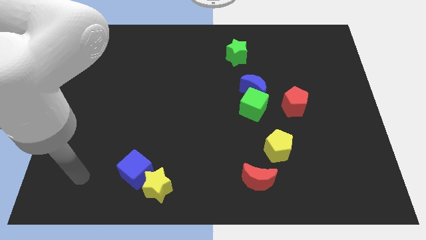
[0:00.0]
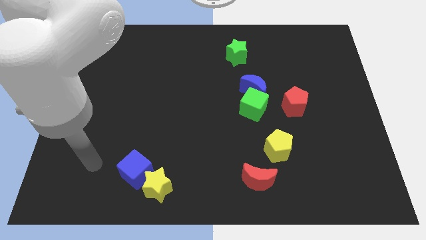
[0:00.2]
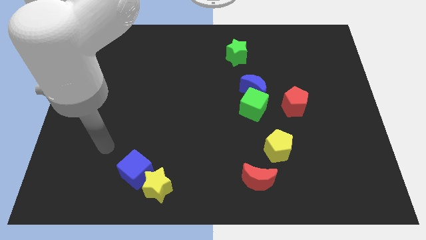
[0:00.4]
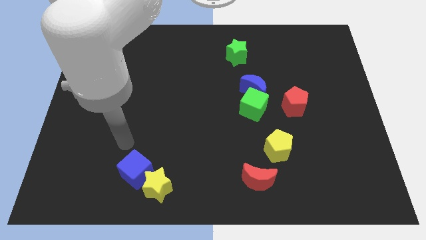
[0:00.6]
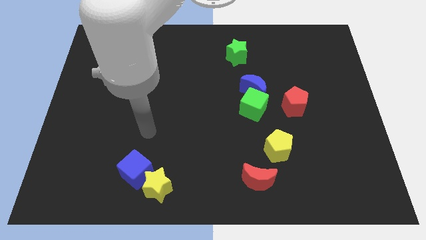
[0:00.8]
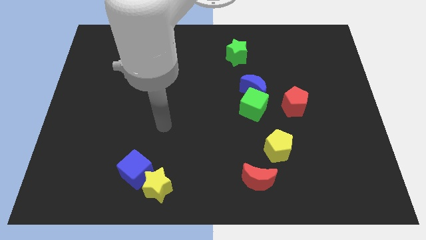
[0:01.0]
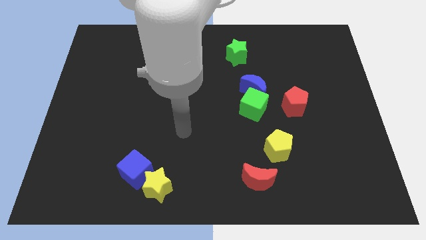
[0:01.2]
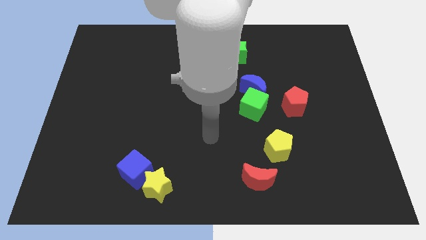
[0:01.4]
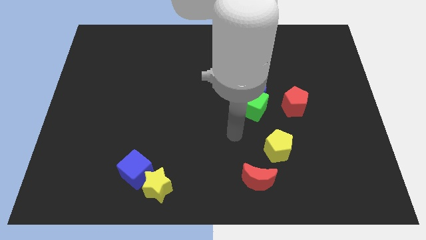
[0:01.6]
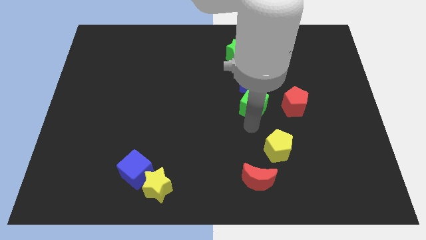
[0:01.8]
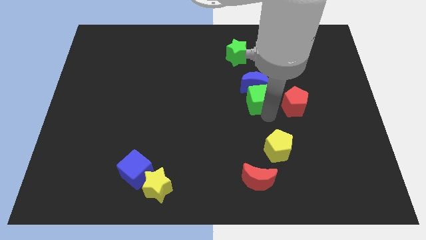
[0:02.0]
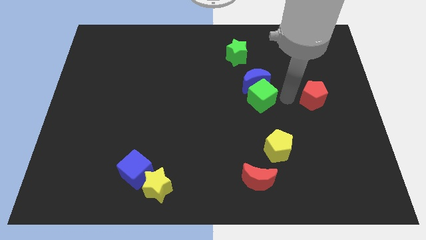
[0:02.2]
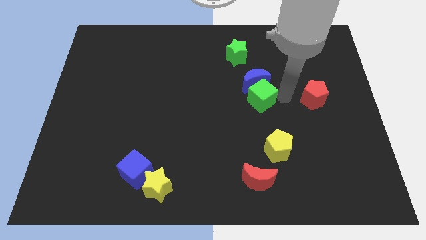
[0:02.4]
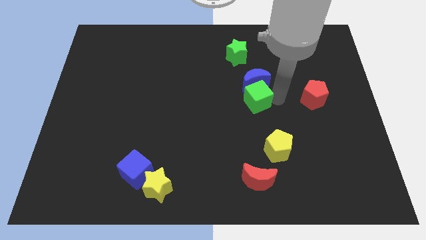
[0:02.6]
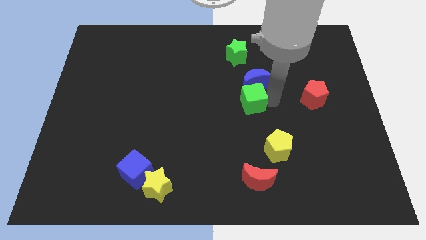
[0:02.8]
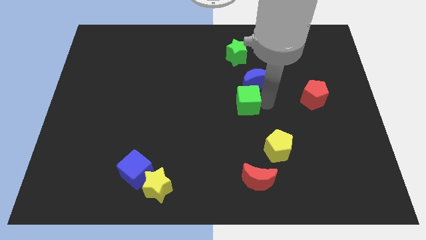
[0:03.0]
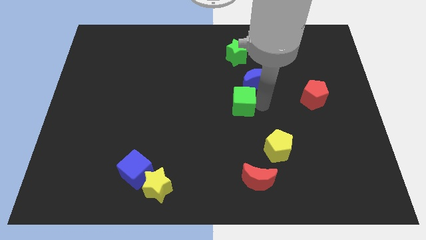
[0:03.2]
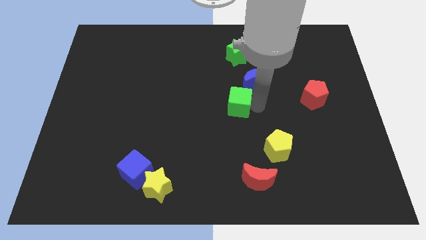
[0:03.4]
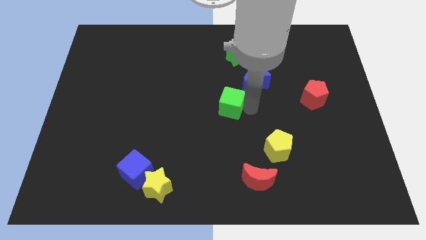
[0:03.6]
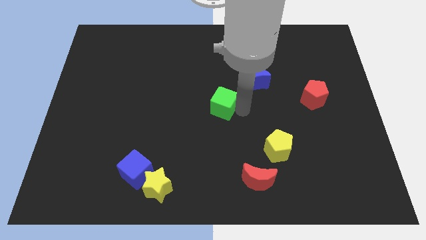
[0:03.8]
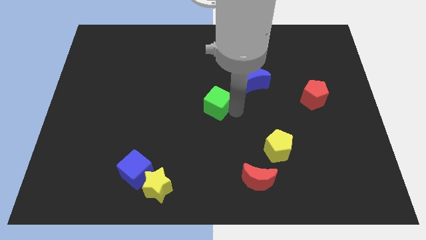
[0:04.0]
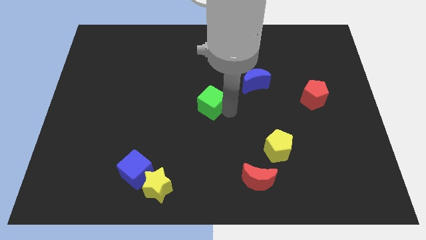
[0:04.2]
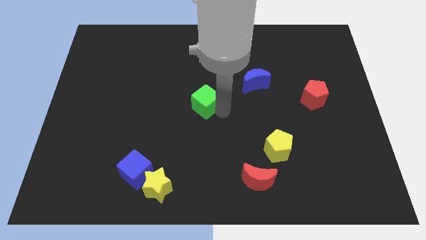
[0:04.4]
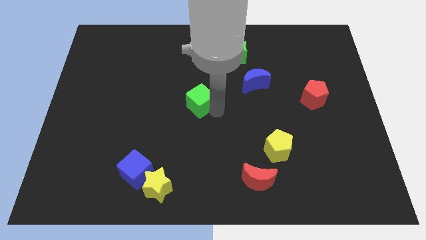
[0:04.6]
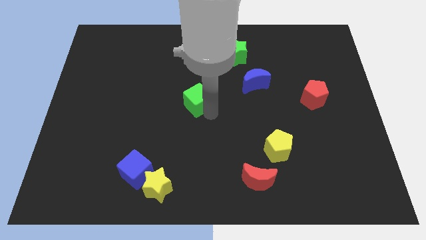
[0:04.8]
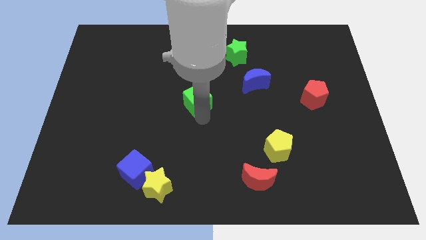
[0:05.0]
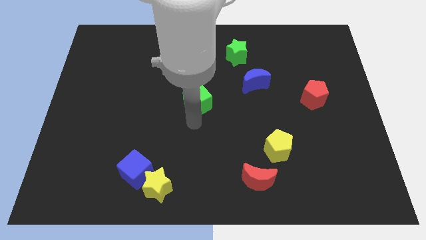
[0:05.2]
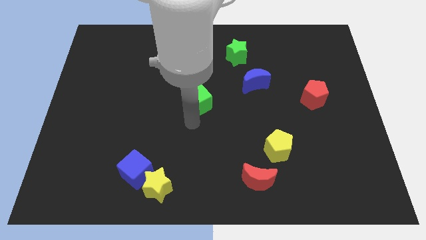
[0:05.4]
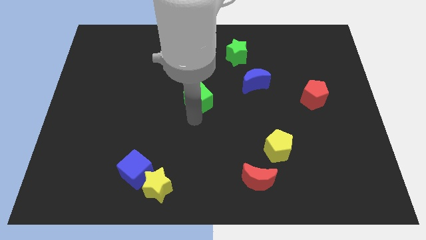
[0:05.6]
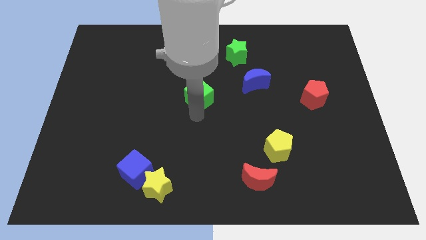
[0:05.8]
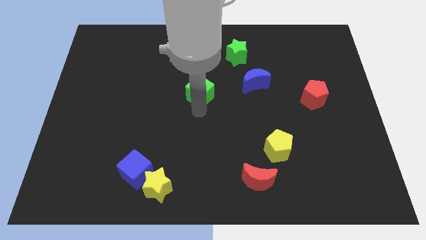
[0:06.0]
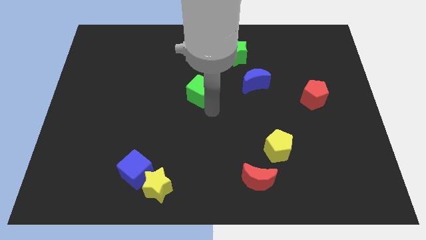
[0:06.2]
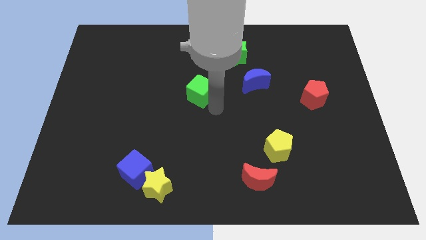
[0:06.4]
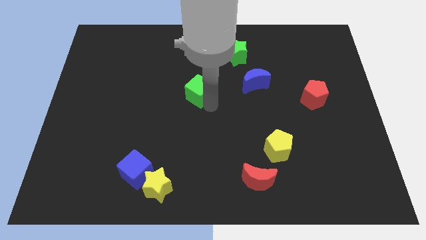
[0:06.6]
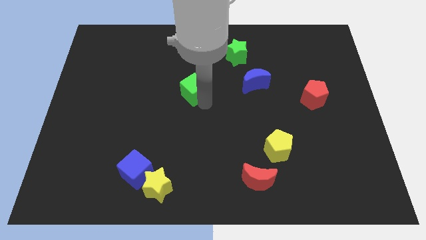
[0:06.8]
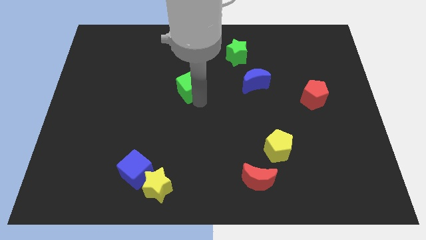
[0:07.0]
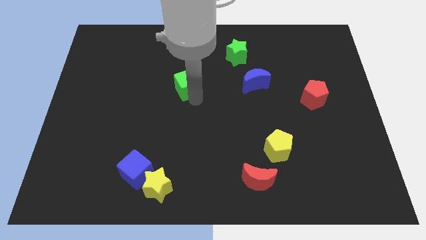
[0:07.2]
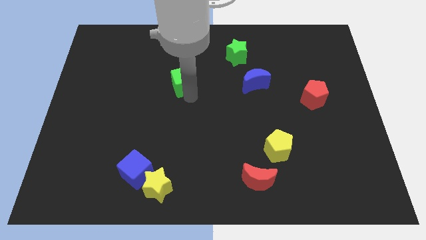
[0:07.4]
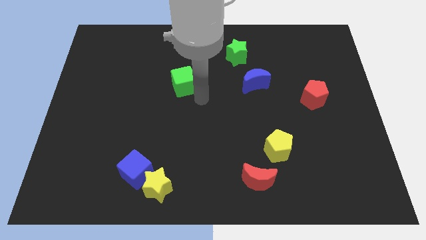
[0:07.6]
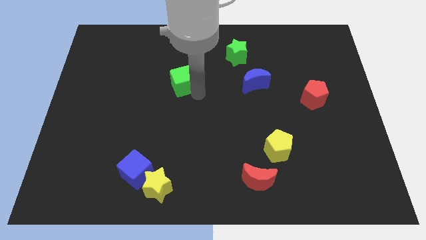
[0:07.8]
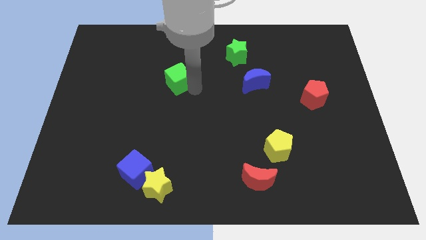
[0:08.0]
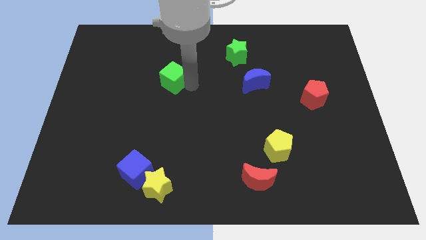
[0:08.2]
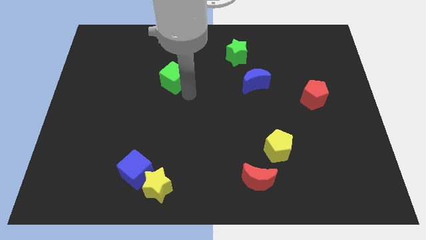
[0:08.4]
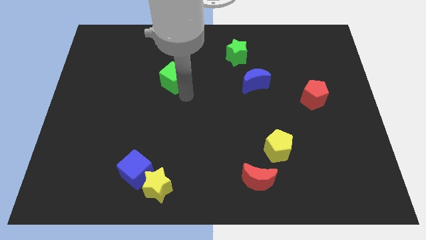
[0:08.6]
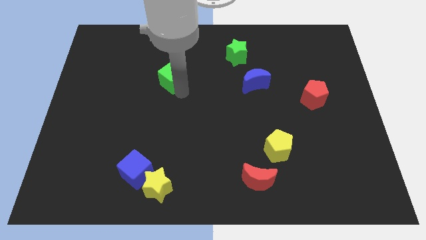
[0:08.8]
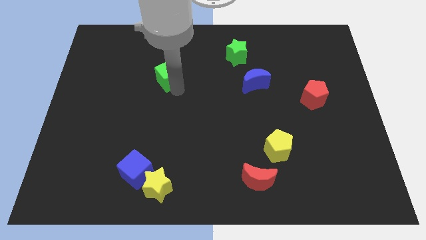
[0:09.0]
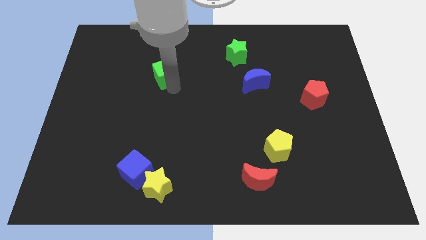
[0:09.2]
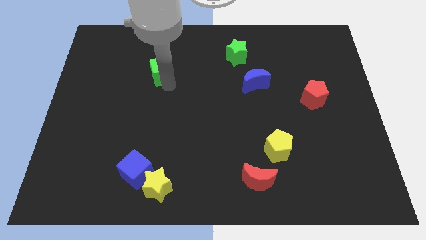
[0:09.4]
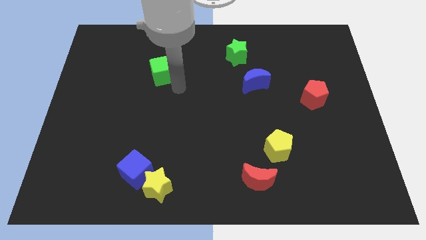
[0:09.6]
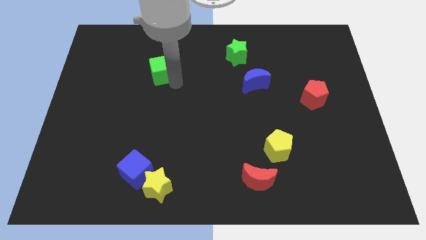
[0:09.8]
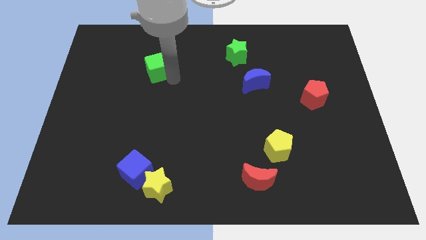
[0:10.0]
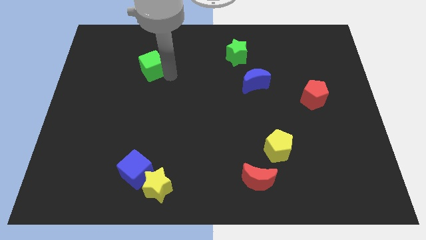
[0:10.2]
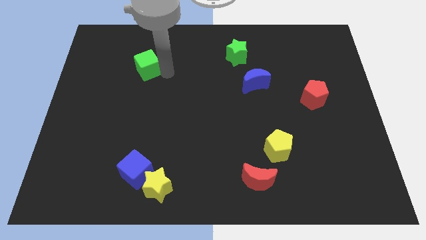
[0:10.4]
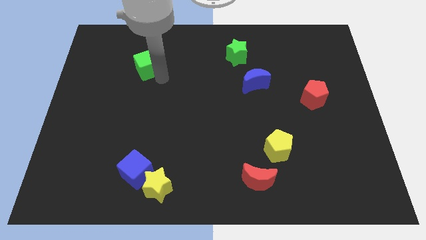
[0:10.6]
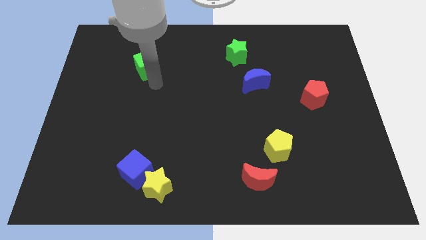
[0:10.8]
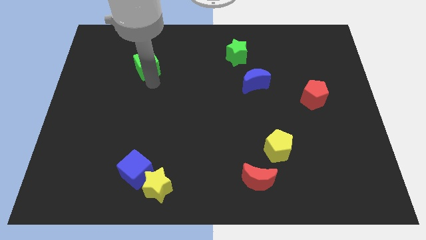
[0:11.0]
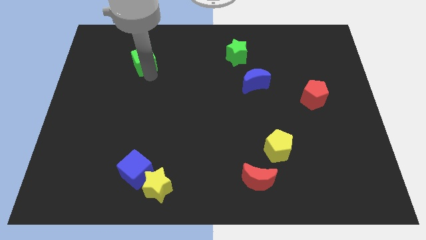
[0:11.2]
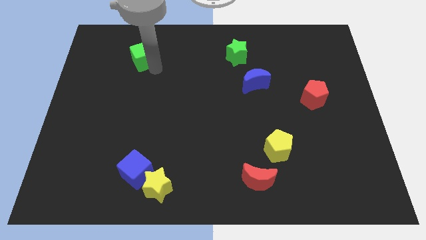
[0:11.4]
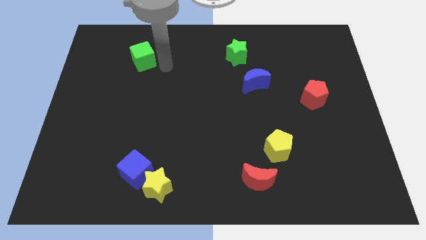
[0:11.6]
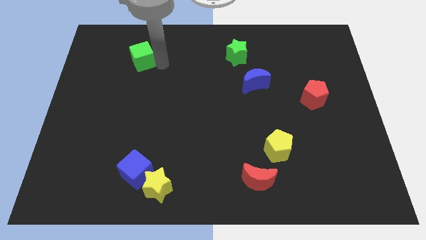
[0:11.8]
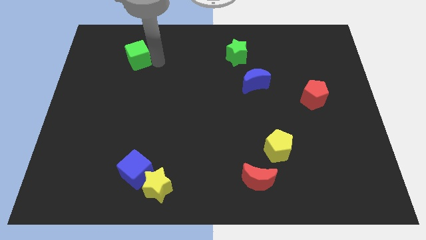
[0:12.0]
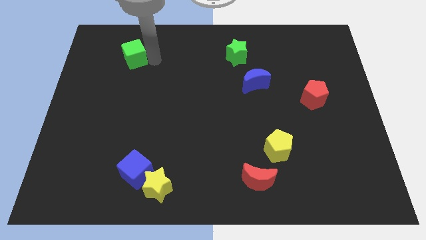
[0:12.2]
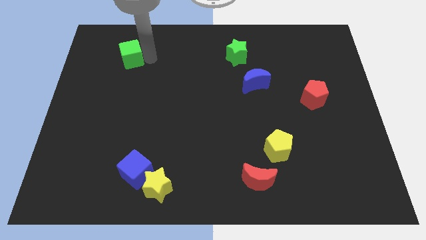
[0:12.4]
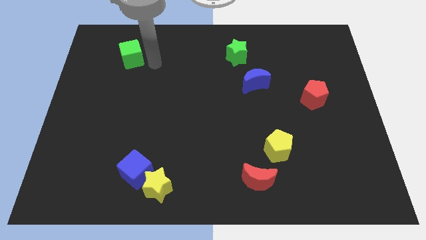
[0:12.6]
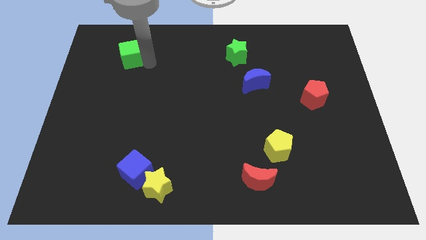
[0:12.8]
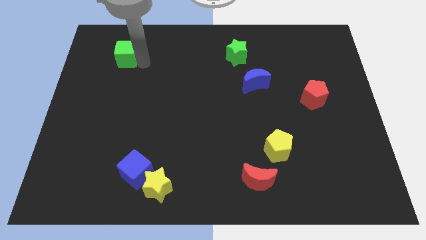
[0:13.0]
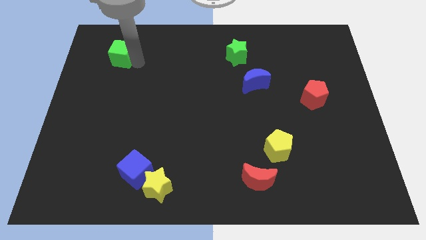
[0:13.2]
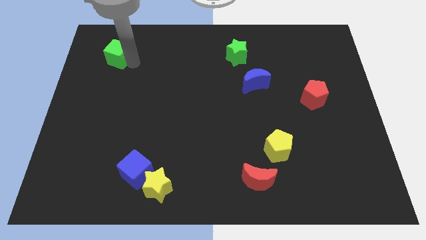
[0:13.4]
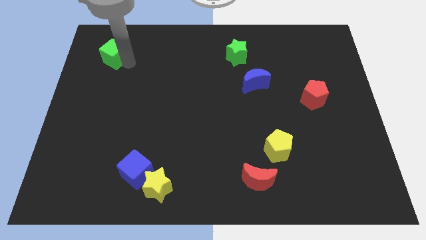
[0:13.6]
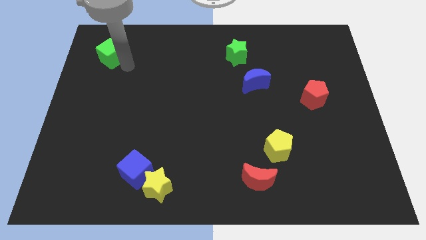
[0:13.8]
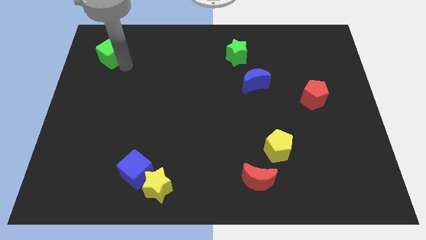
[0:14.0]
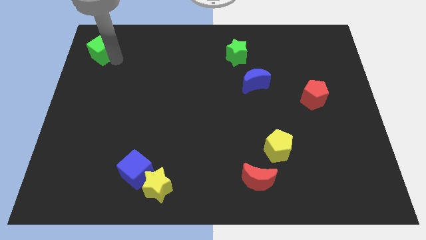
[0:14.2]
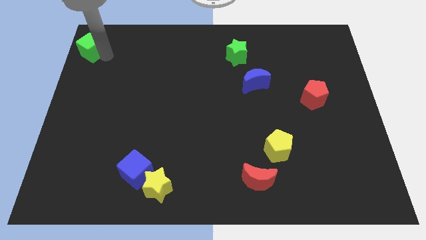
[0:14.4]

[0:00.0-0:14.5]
move the green cube to the top left of the board
